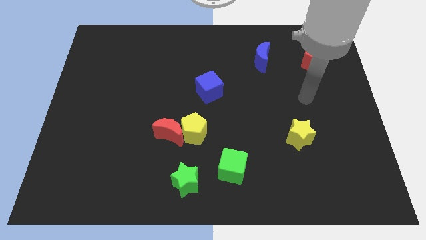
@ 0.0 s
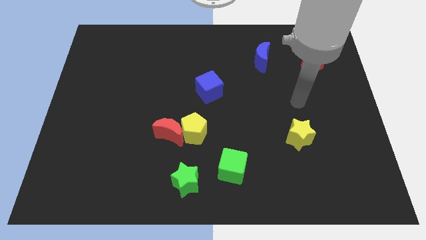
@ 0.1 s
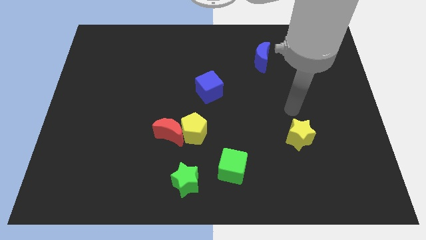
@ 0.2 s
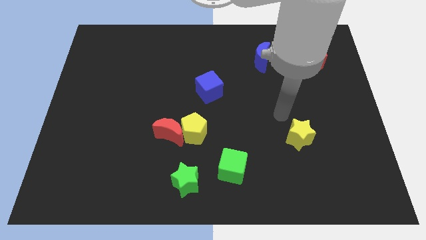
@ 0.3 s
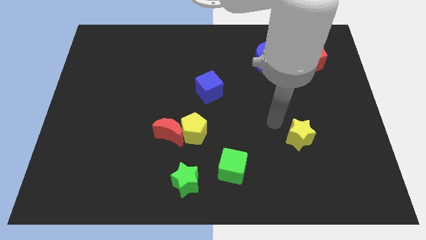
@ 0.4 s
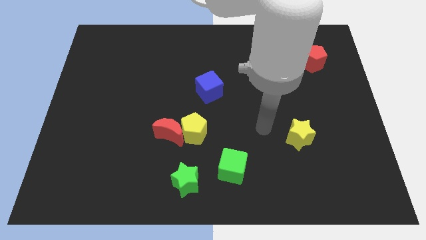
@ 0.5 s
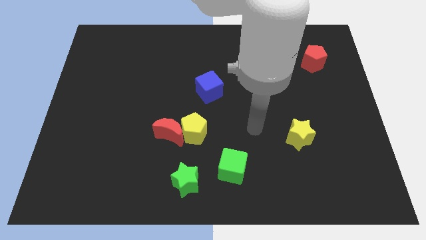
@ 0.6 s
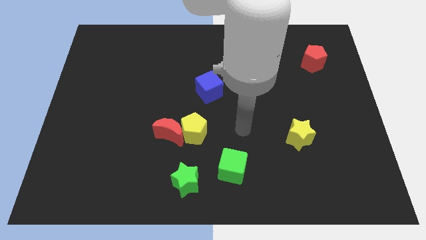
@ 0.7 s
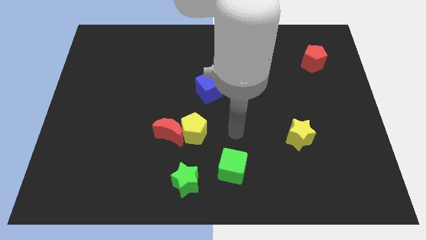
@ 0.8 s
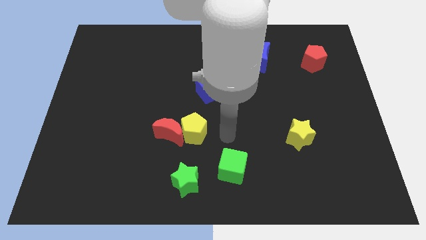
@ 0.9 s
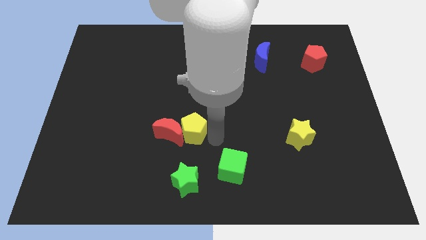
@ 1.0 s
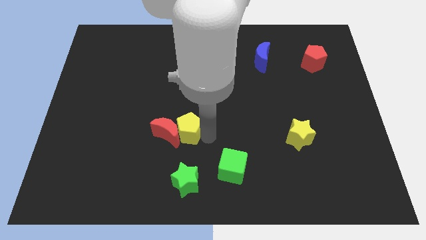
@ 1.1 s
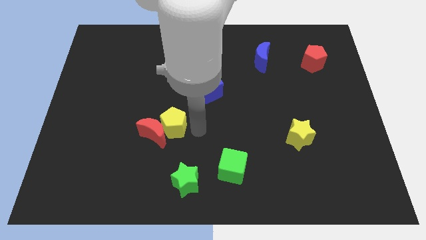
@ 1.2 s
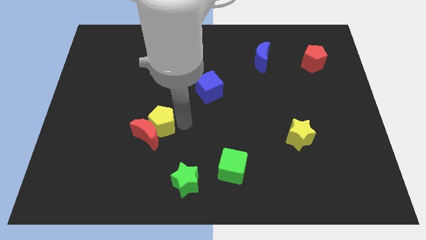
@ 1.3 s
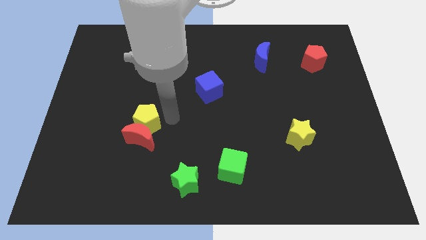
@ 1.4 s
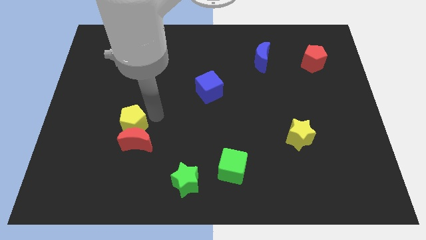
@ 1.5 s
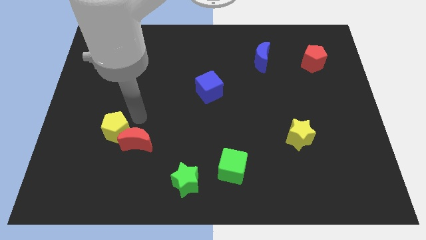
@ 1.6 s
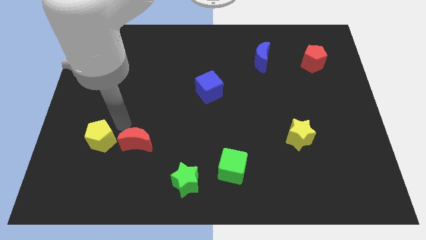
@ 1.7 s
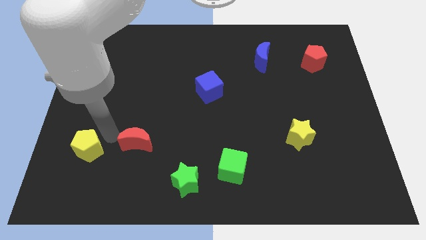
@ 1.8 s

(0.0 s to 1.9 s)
pull the red moon apart from the yellow pentagon

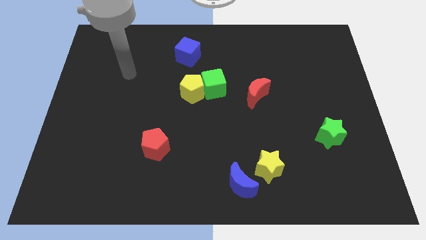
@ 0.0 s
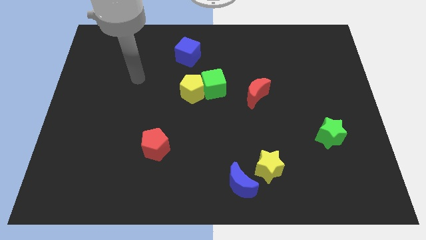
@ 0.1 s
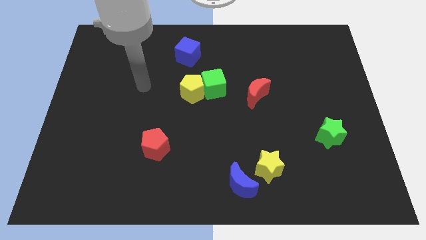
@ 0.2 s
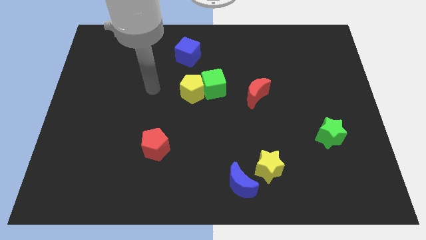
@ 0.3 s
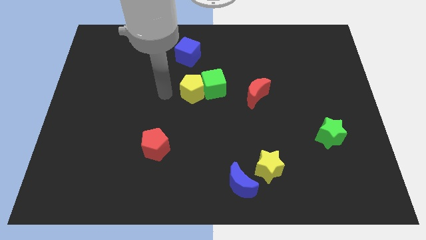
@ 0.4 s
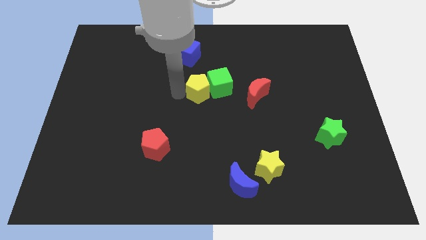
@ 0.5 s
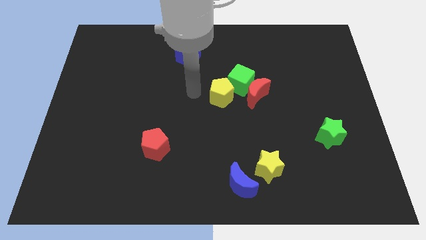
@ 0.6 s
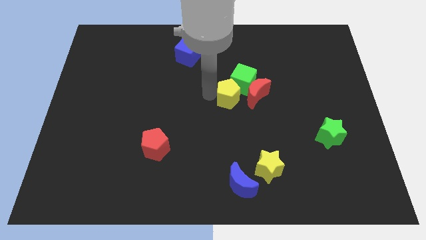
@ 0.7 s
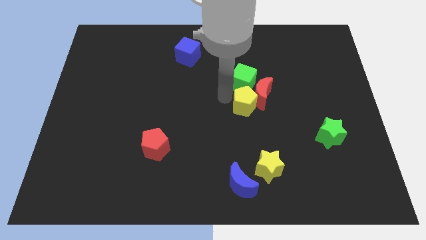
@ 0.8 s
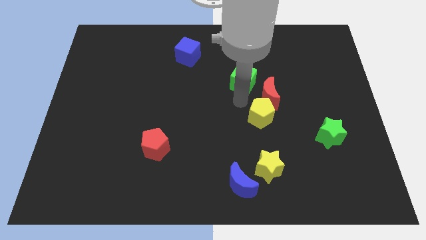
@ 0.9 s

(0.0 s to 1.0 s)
pull the green cube apart from the yellow pentagon

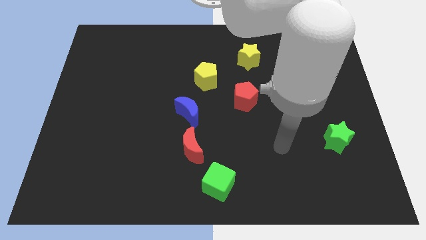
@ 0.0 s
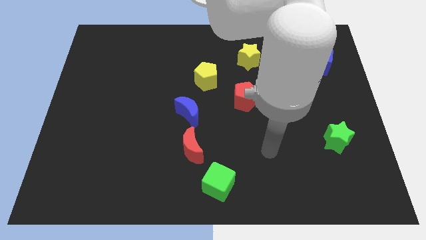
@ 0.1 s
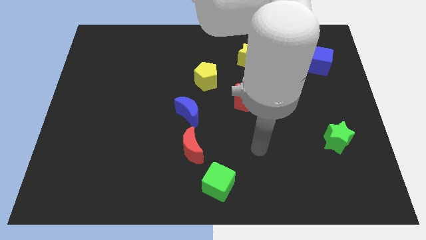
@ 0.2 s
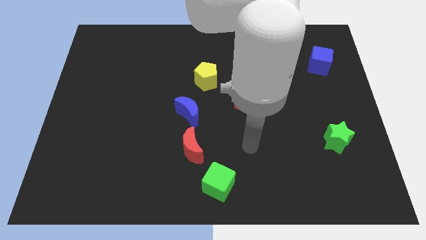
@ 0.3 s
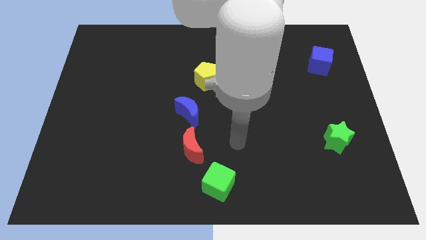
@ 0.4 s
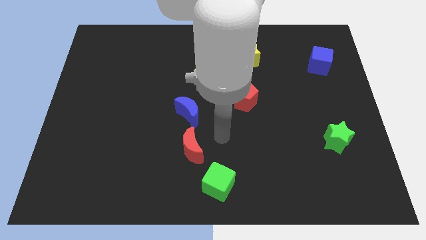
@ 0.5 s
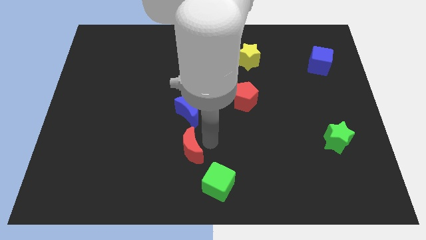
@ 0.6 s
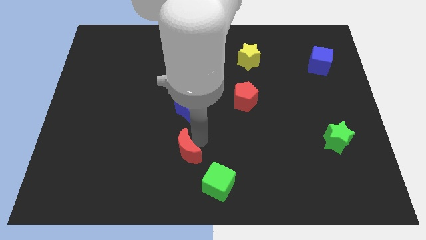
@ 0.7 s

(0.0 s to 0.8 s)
separate the blue moon from the red moon

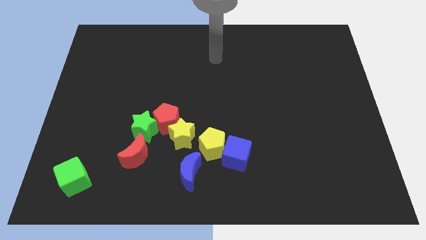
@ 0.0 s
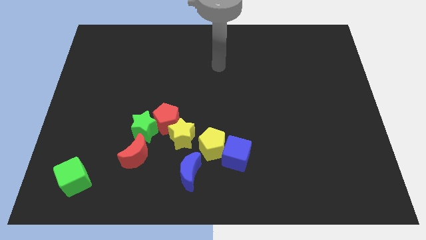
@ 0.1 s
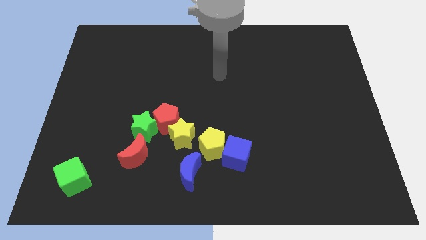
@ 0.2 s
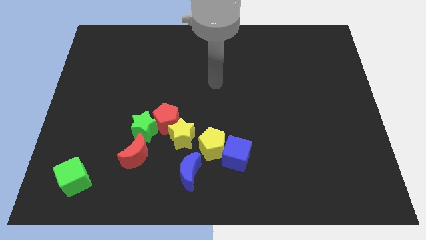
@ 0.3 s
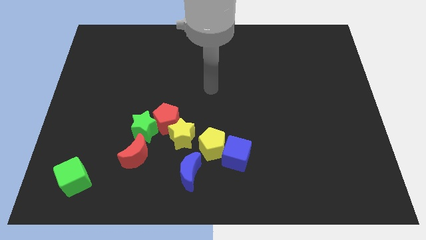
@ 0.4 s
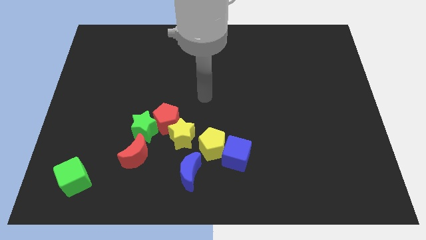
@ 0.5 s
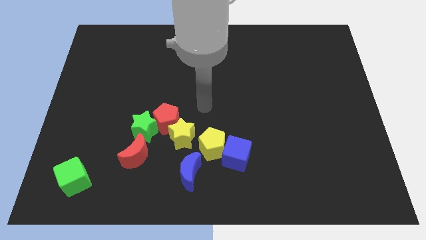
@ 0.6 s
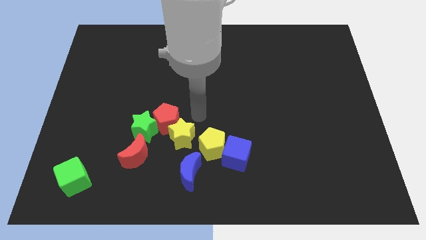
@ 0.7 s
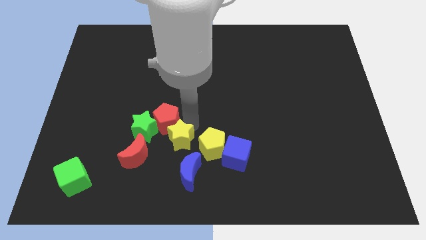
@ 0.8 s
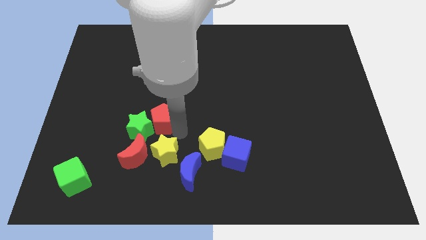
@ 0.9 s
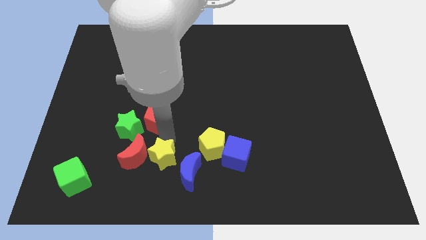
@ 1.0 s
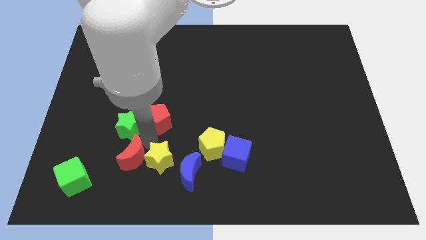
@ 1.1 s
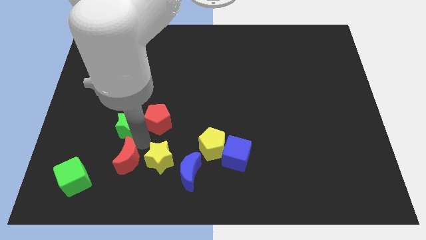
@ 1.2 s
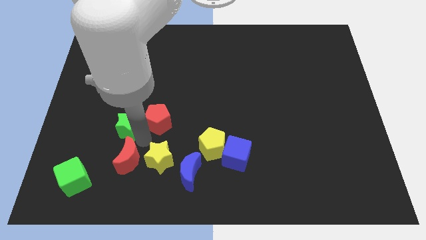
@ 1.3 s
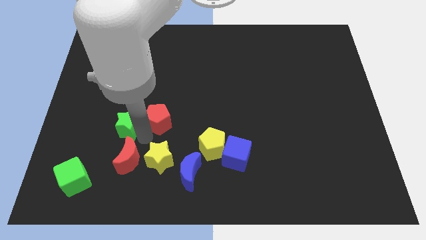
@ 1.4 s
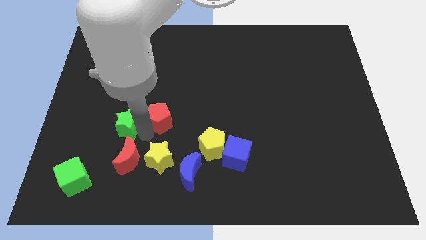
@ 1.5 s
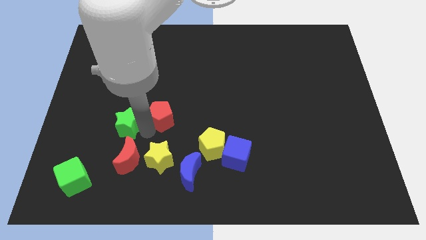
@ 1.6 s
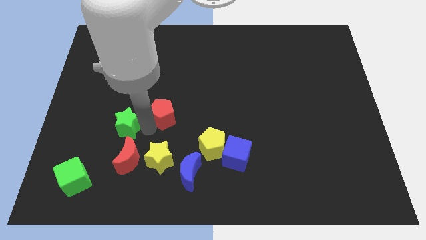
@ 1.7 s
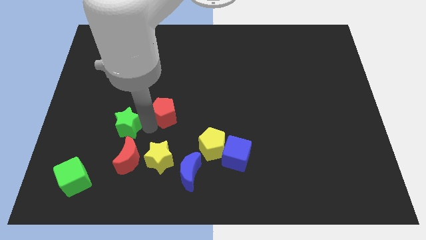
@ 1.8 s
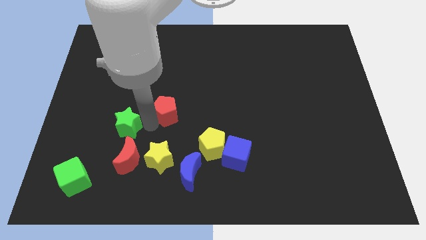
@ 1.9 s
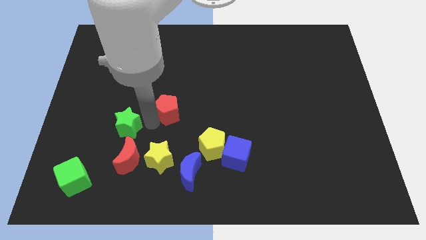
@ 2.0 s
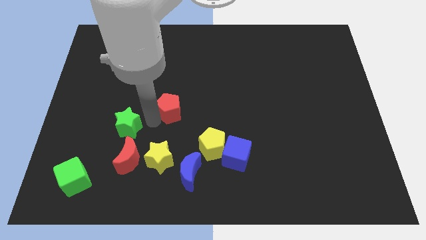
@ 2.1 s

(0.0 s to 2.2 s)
separate the red pentagon from the green star and yellow star

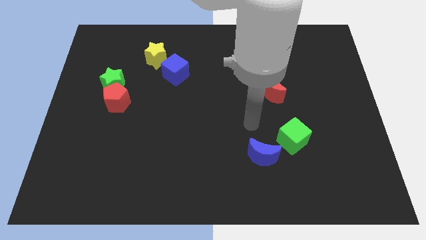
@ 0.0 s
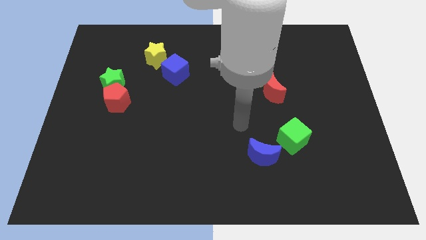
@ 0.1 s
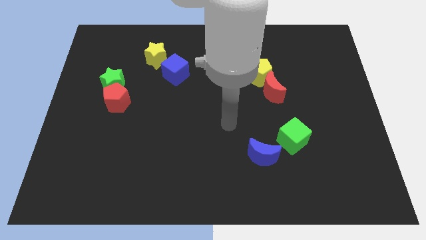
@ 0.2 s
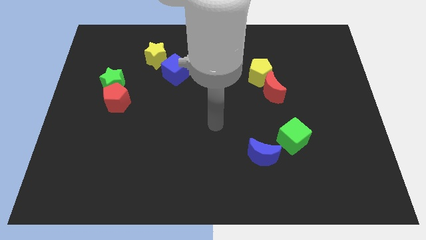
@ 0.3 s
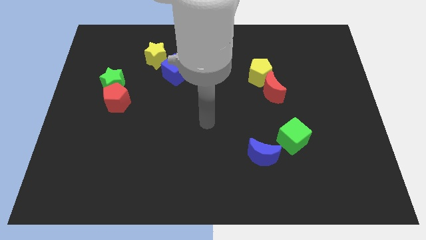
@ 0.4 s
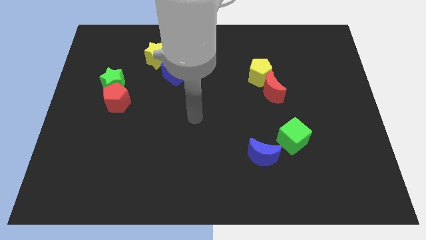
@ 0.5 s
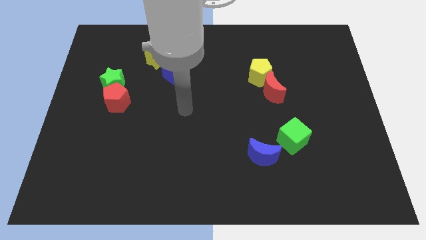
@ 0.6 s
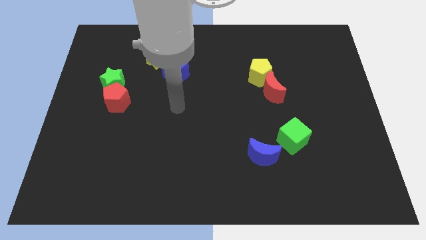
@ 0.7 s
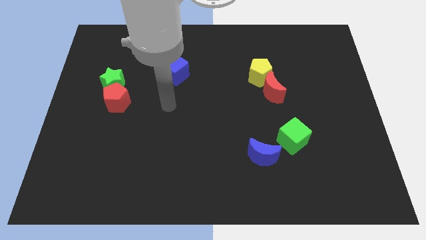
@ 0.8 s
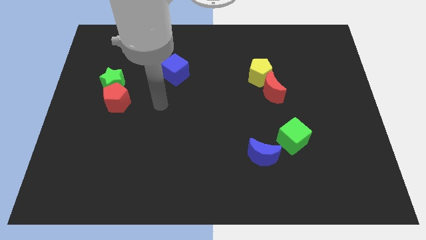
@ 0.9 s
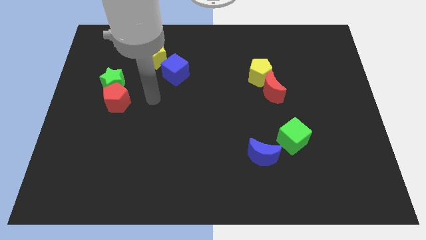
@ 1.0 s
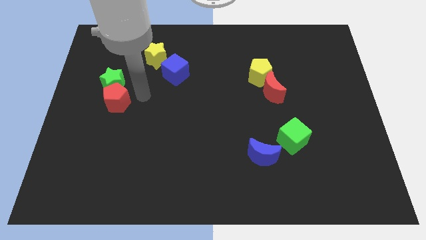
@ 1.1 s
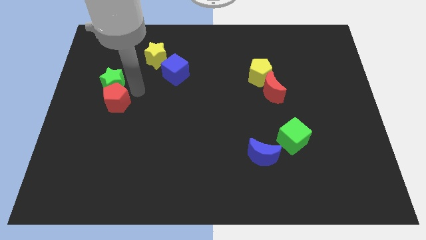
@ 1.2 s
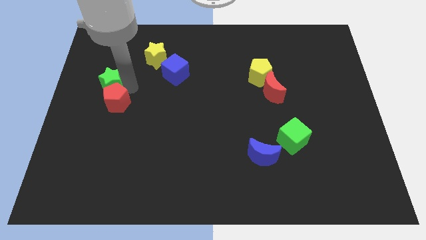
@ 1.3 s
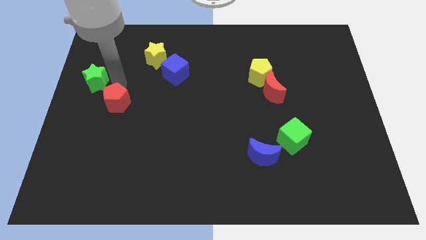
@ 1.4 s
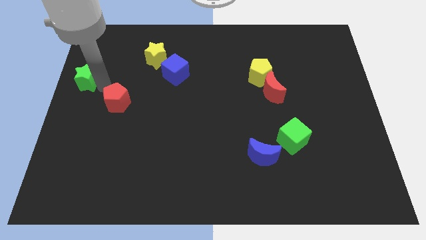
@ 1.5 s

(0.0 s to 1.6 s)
pull the red pentagon apart from the green star

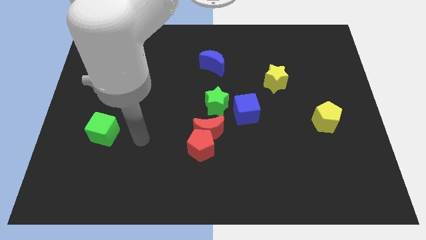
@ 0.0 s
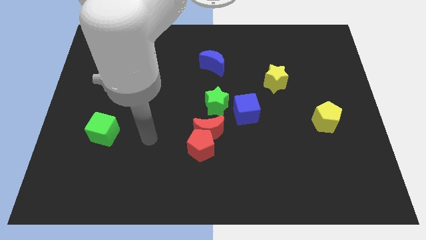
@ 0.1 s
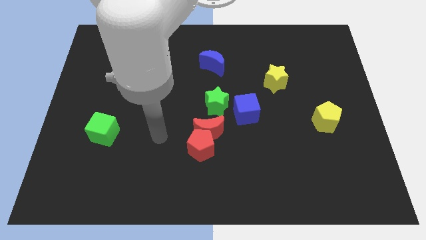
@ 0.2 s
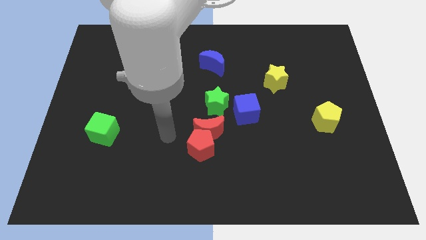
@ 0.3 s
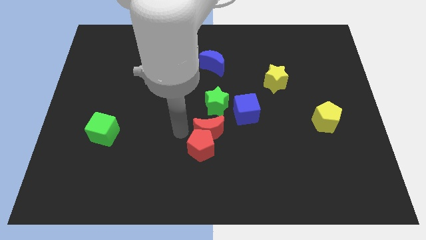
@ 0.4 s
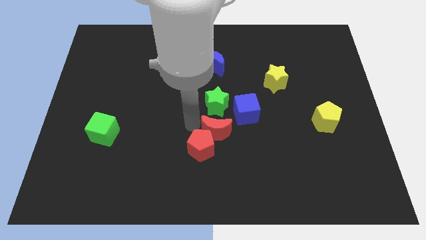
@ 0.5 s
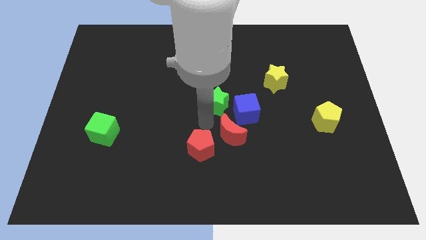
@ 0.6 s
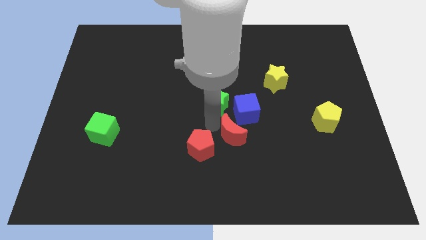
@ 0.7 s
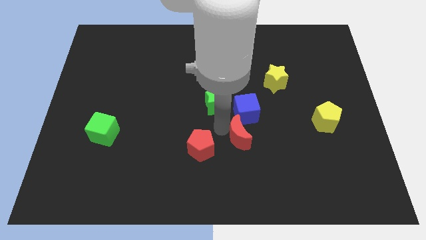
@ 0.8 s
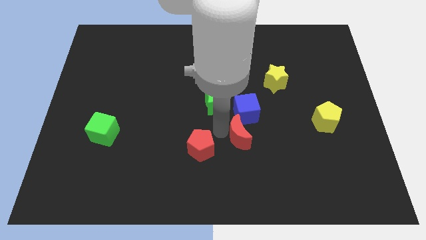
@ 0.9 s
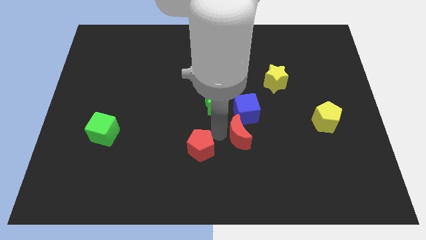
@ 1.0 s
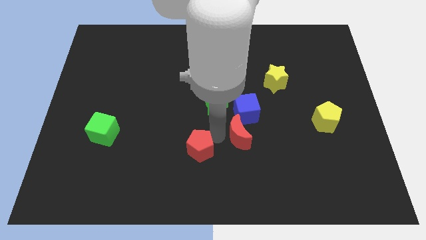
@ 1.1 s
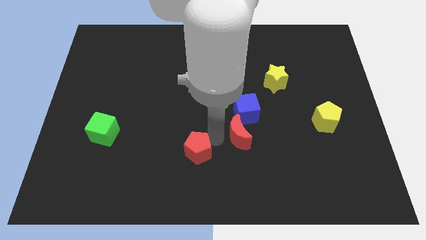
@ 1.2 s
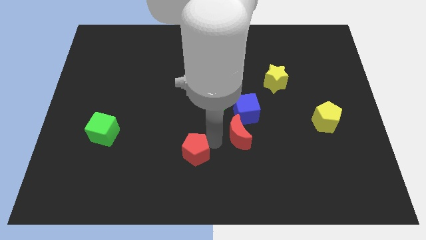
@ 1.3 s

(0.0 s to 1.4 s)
separate the red pentagon from the red moon

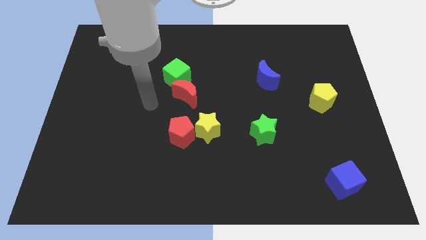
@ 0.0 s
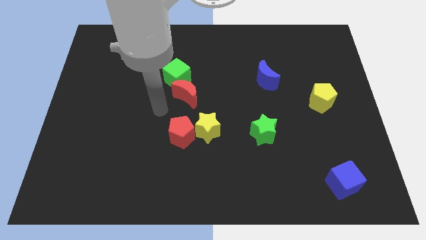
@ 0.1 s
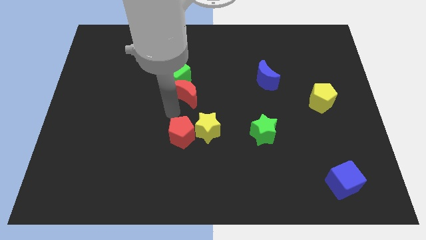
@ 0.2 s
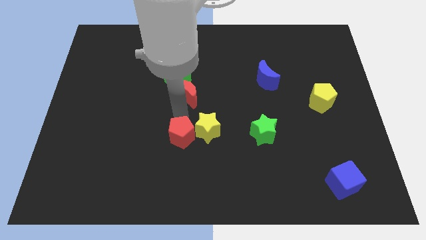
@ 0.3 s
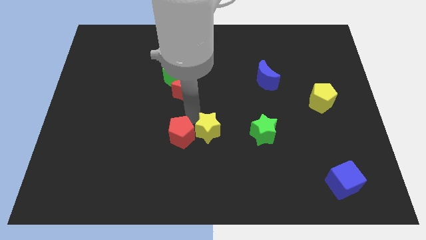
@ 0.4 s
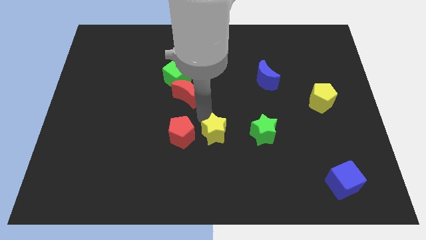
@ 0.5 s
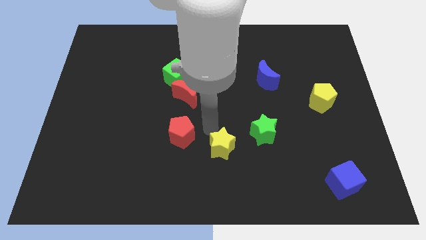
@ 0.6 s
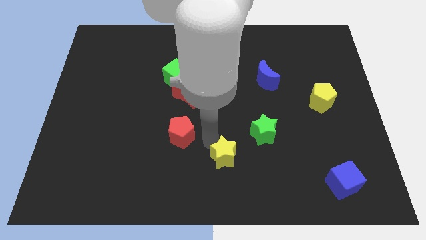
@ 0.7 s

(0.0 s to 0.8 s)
pull the red pentagon apart from the yellow star
